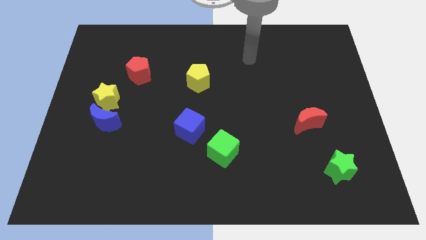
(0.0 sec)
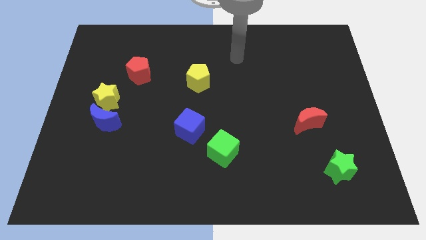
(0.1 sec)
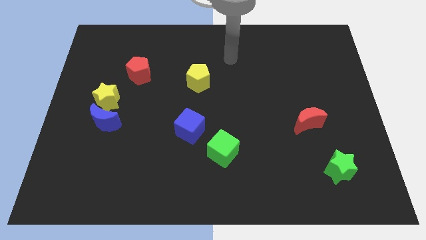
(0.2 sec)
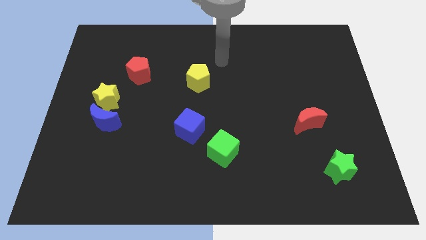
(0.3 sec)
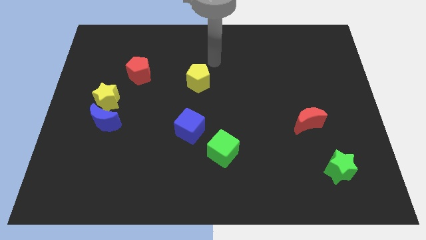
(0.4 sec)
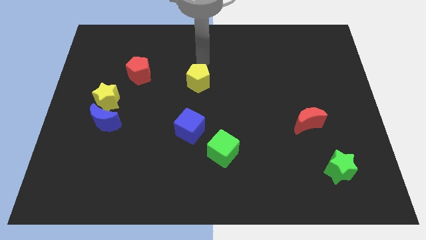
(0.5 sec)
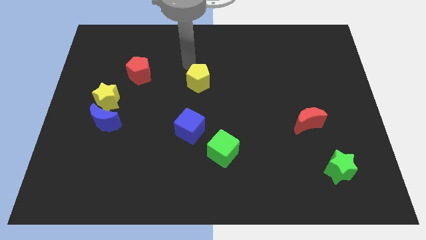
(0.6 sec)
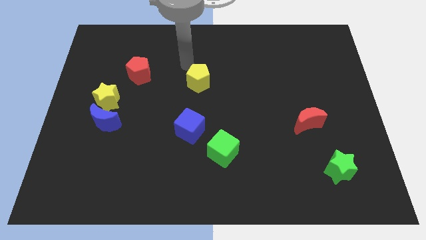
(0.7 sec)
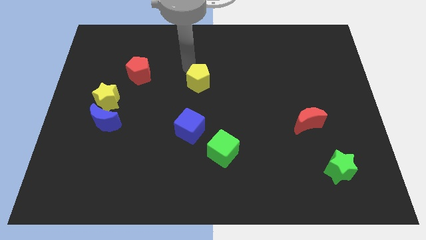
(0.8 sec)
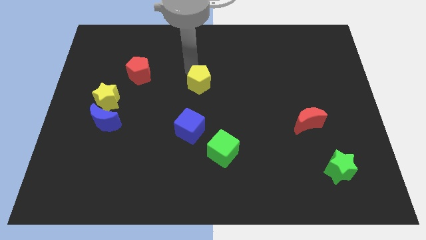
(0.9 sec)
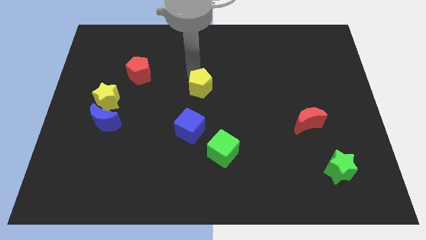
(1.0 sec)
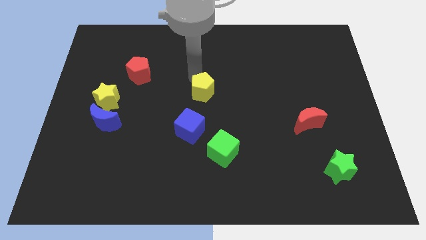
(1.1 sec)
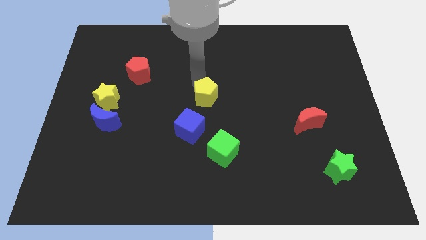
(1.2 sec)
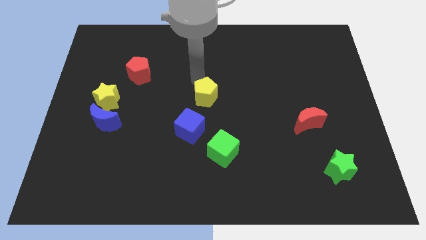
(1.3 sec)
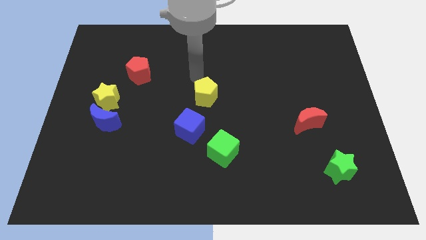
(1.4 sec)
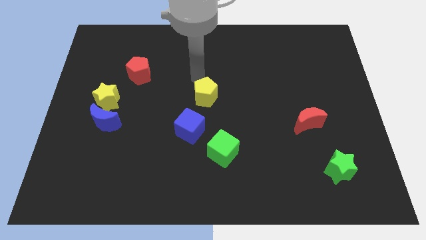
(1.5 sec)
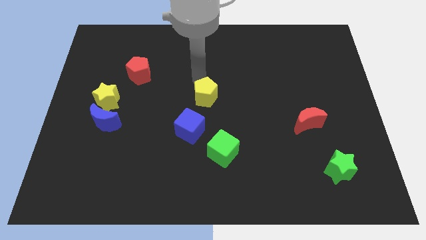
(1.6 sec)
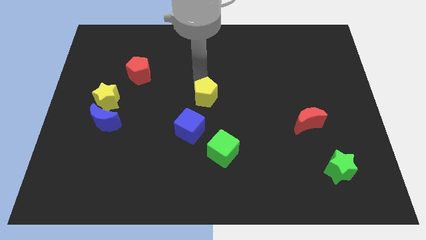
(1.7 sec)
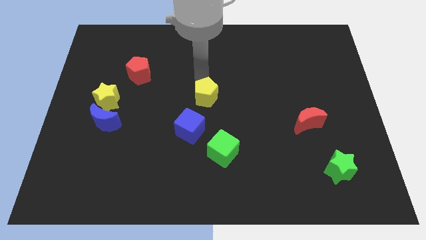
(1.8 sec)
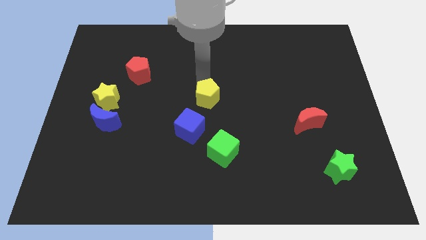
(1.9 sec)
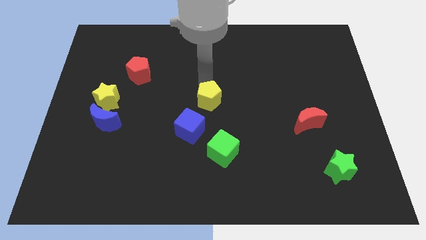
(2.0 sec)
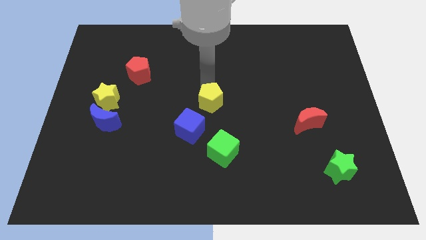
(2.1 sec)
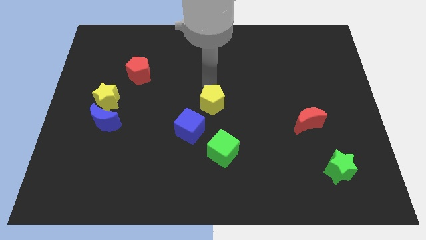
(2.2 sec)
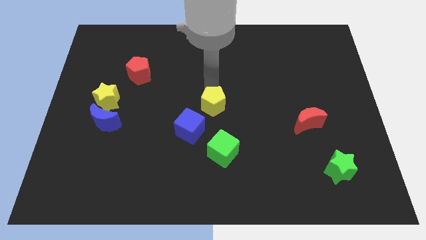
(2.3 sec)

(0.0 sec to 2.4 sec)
move the yellow pentagon downwards somewhat

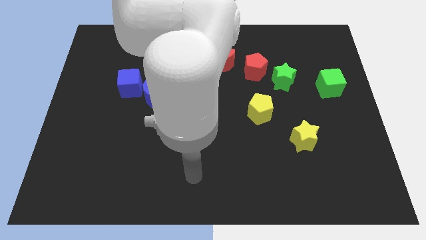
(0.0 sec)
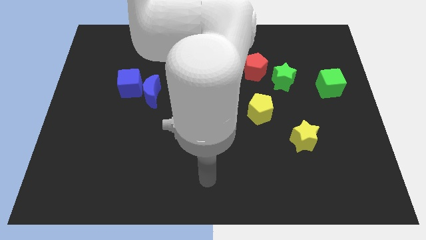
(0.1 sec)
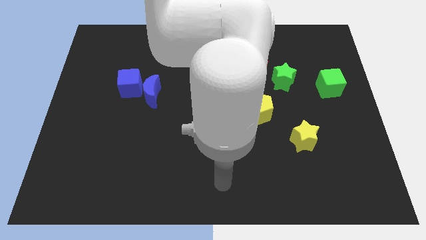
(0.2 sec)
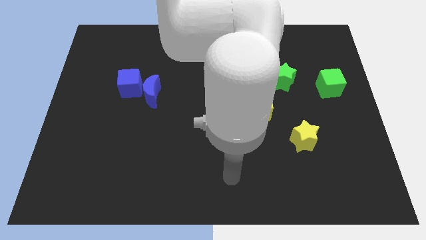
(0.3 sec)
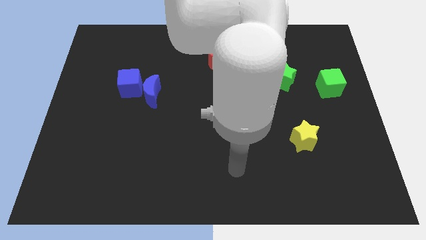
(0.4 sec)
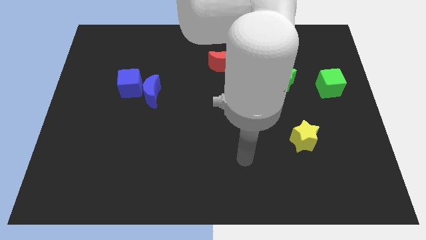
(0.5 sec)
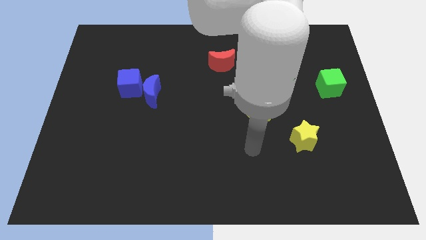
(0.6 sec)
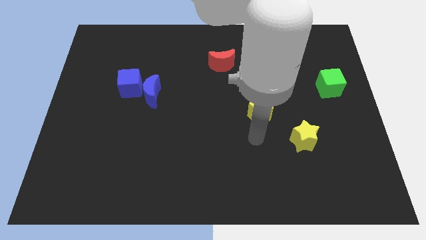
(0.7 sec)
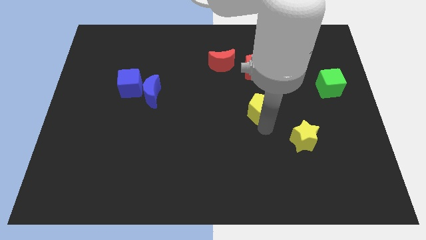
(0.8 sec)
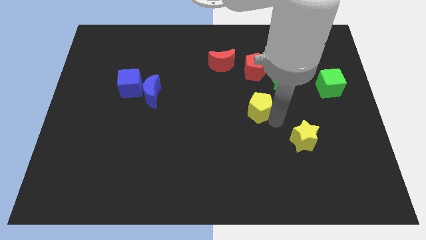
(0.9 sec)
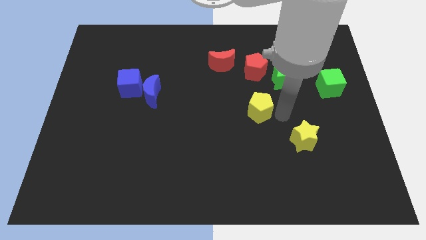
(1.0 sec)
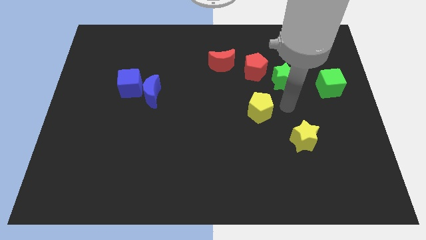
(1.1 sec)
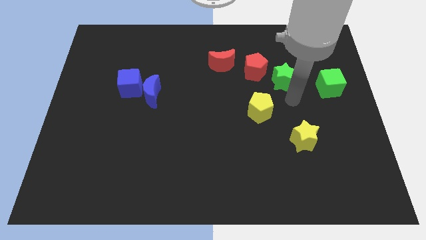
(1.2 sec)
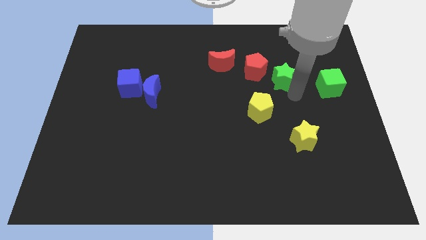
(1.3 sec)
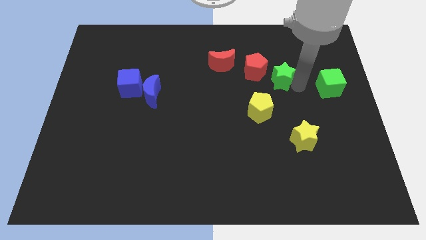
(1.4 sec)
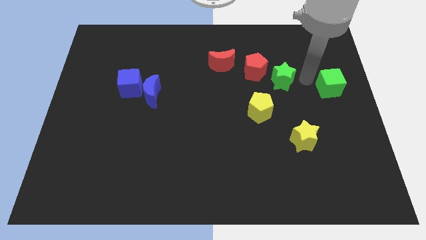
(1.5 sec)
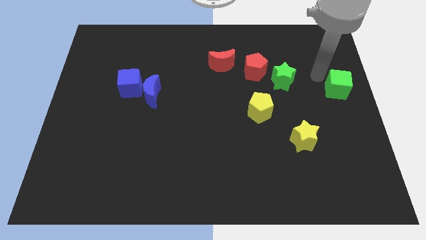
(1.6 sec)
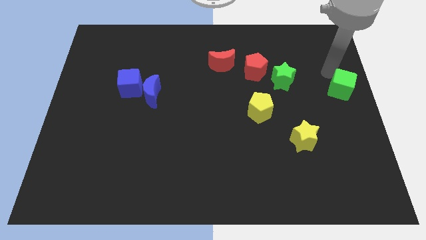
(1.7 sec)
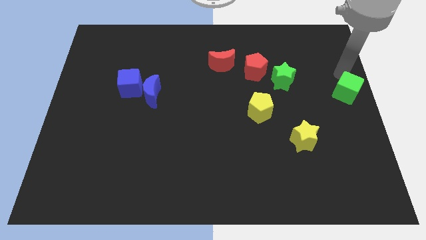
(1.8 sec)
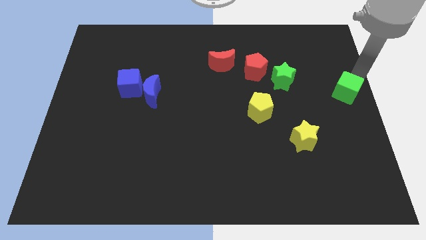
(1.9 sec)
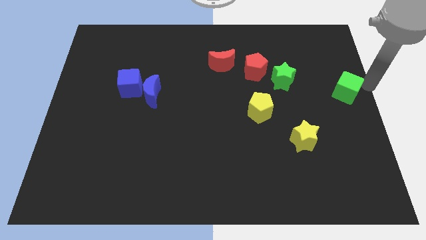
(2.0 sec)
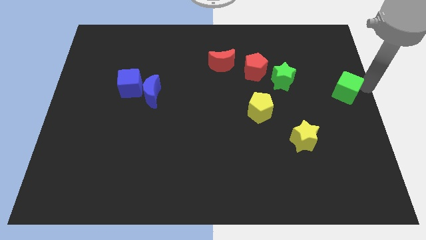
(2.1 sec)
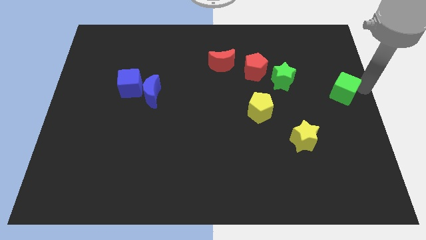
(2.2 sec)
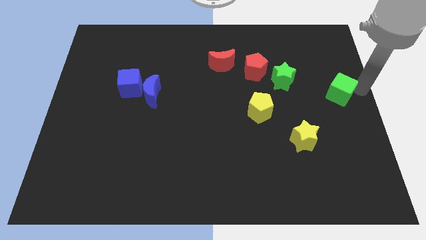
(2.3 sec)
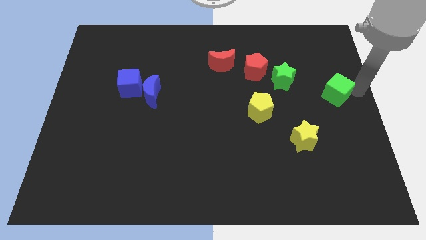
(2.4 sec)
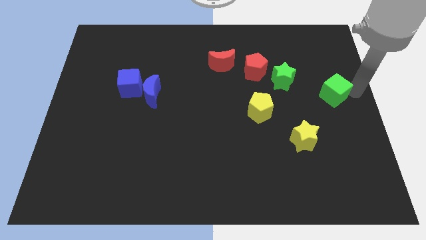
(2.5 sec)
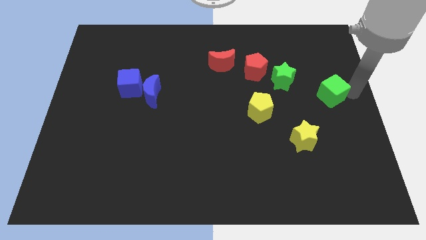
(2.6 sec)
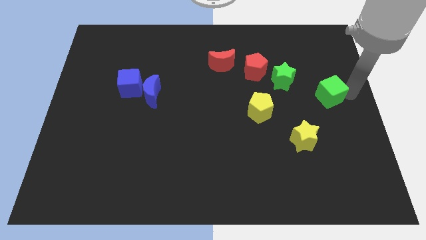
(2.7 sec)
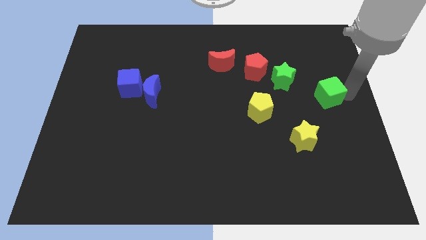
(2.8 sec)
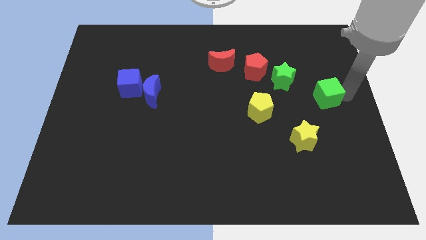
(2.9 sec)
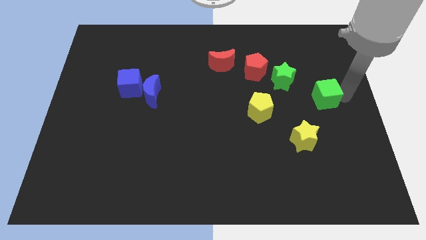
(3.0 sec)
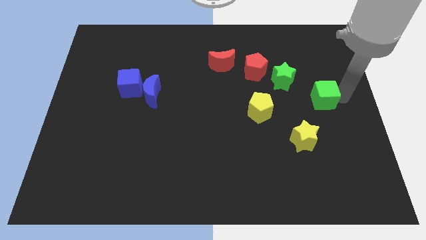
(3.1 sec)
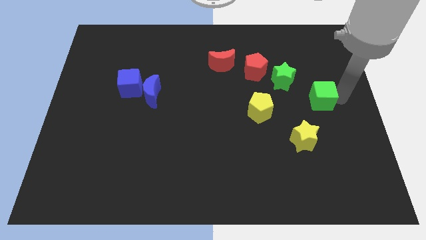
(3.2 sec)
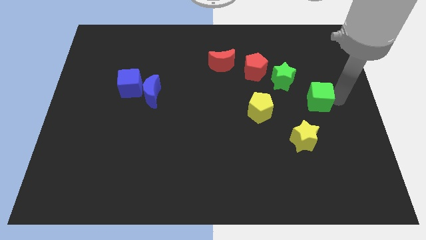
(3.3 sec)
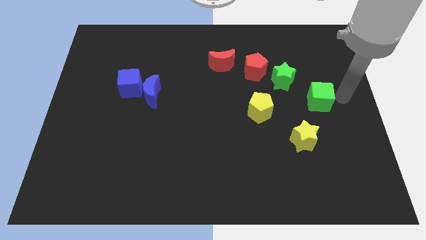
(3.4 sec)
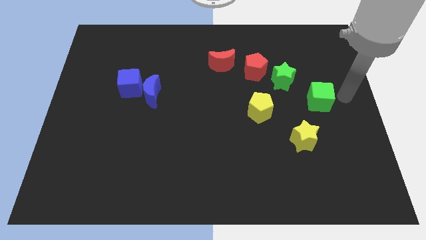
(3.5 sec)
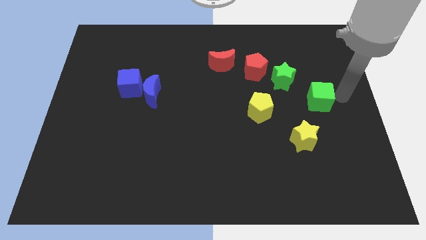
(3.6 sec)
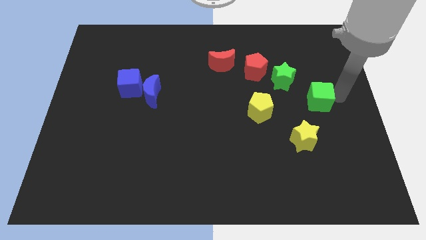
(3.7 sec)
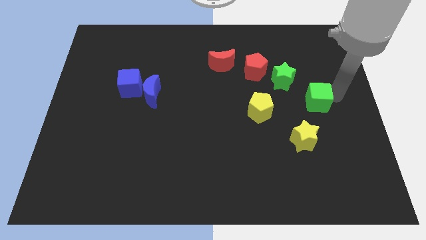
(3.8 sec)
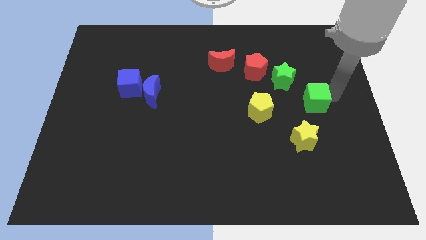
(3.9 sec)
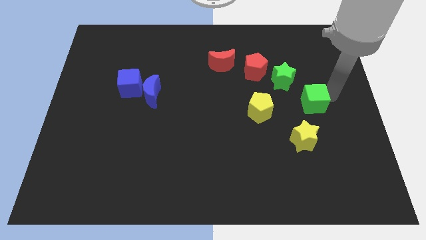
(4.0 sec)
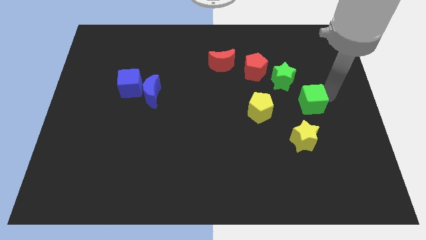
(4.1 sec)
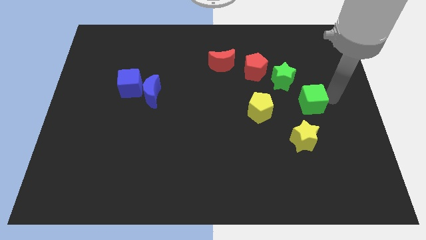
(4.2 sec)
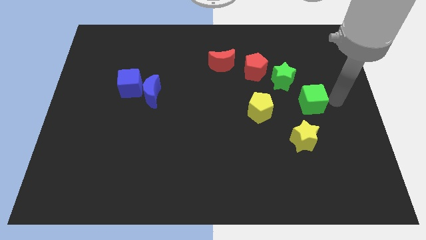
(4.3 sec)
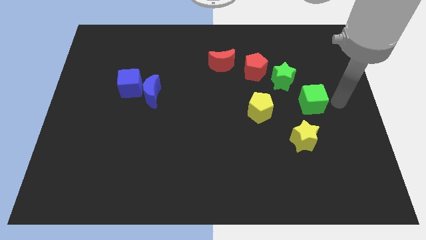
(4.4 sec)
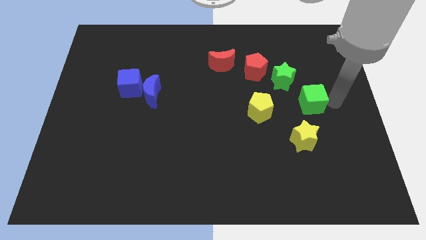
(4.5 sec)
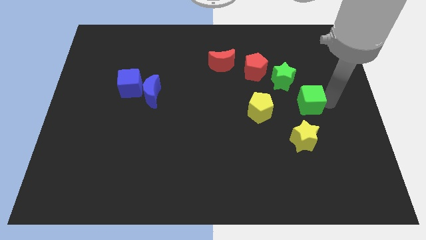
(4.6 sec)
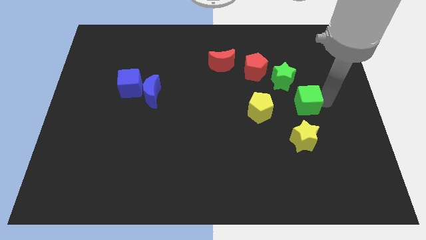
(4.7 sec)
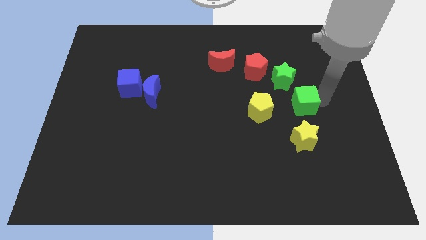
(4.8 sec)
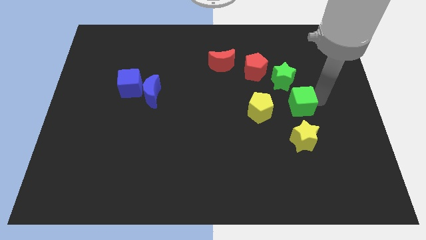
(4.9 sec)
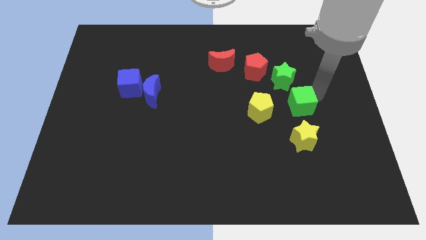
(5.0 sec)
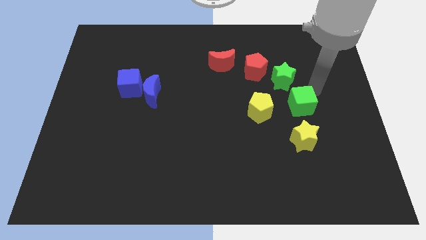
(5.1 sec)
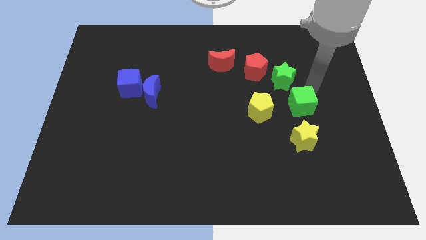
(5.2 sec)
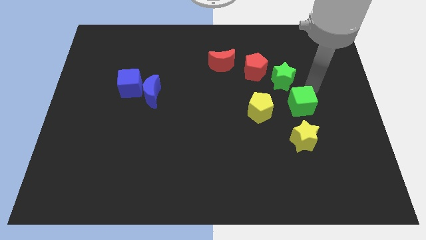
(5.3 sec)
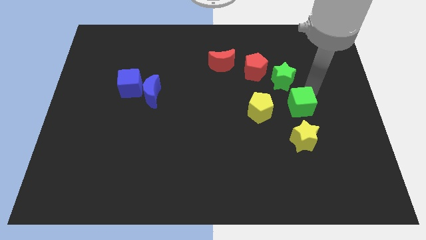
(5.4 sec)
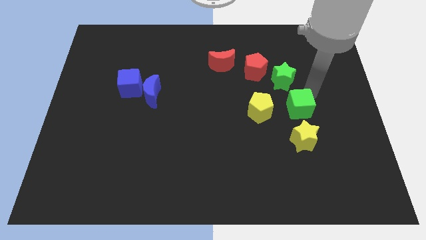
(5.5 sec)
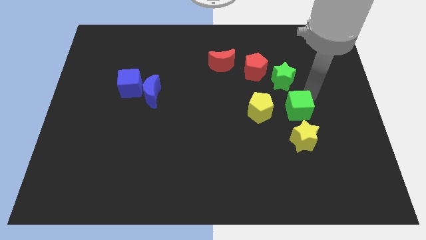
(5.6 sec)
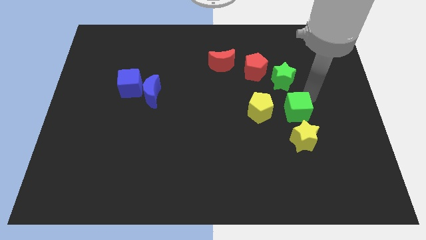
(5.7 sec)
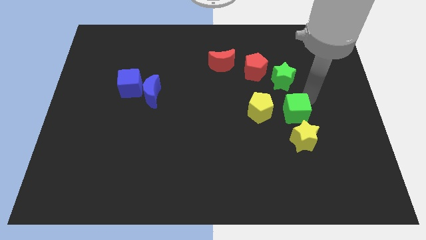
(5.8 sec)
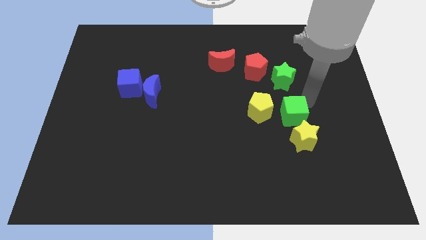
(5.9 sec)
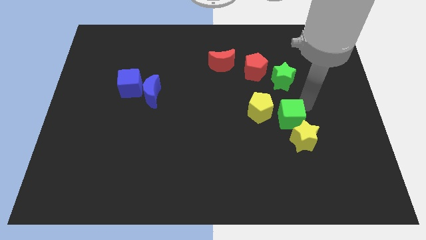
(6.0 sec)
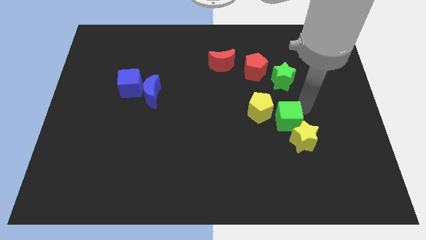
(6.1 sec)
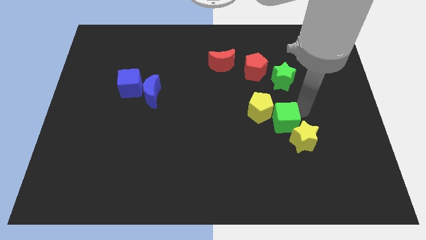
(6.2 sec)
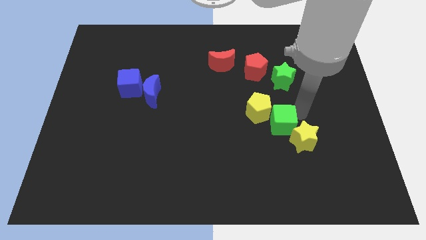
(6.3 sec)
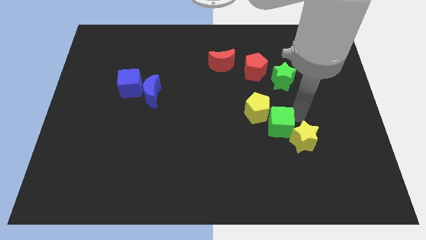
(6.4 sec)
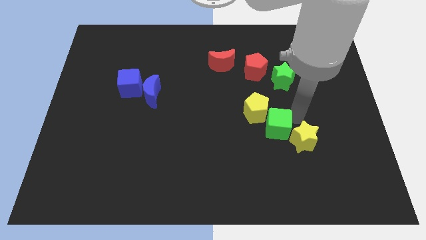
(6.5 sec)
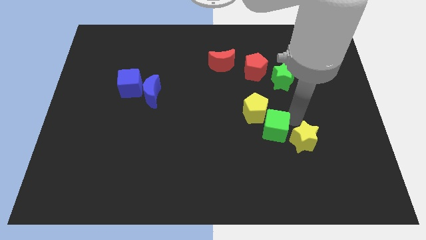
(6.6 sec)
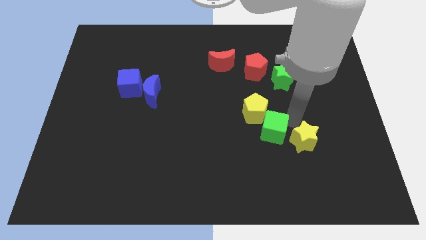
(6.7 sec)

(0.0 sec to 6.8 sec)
slide the green cube down and then left
